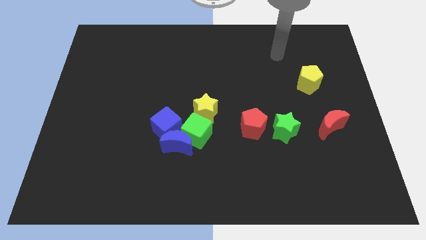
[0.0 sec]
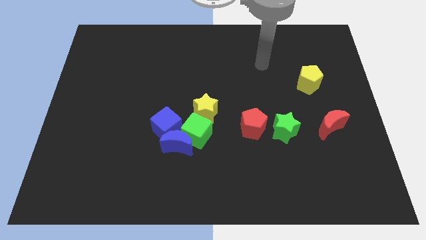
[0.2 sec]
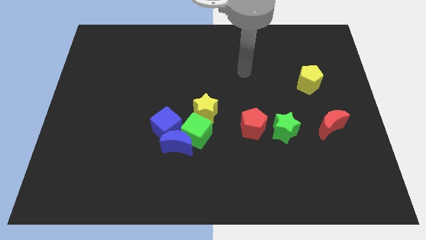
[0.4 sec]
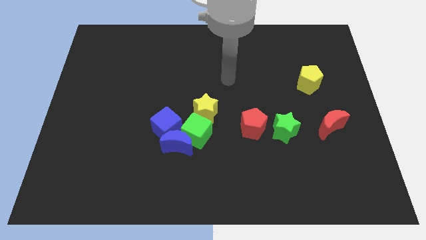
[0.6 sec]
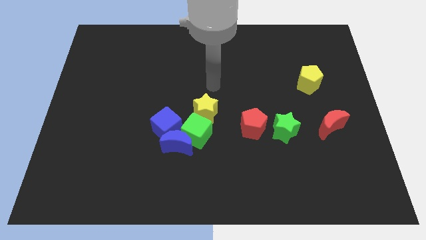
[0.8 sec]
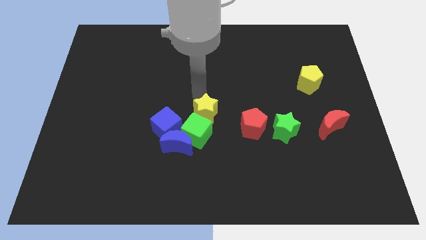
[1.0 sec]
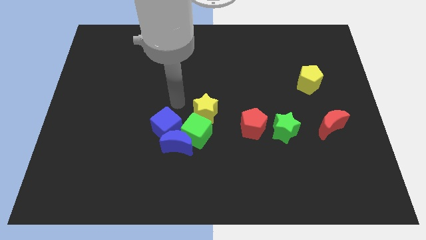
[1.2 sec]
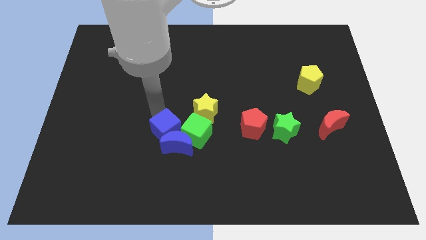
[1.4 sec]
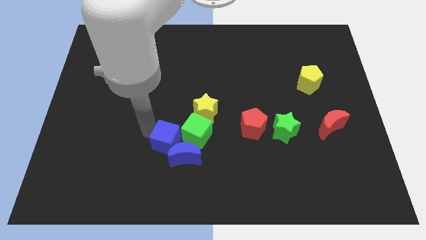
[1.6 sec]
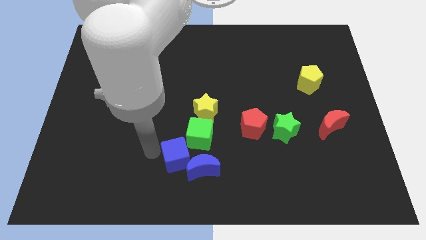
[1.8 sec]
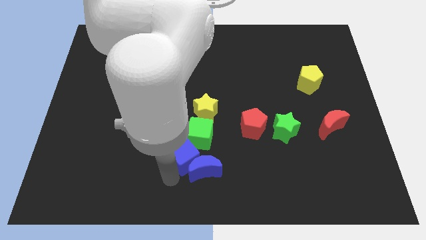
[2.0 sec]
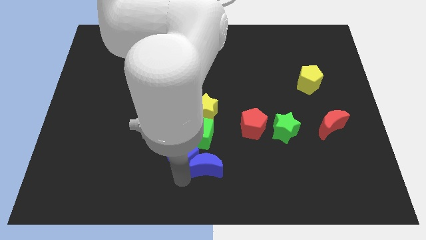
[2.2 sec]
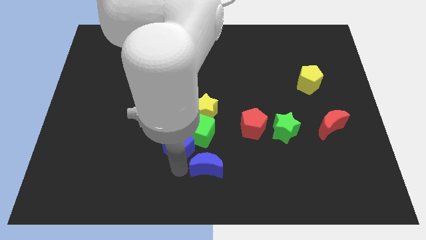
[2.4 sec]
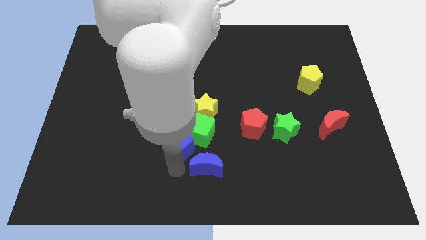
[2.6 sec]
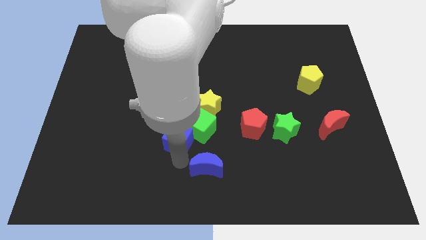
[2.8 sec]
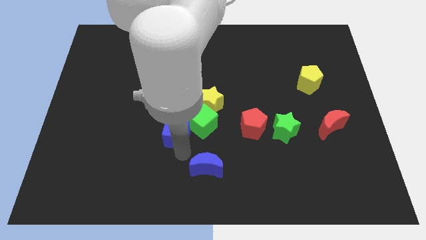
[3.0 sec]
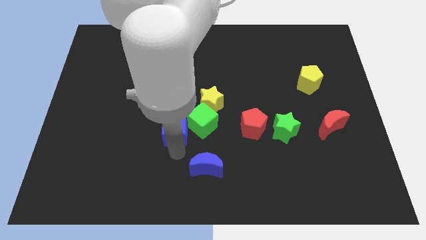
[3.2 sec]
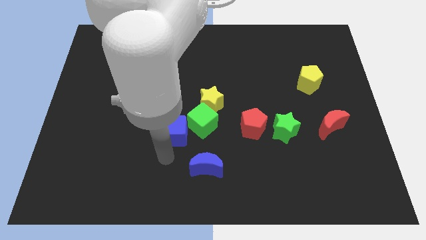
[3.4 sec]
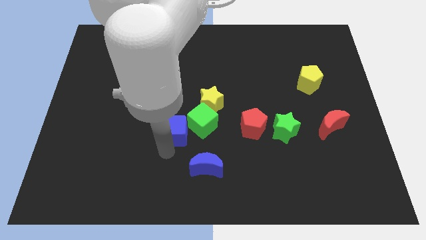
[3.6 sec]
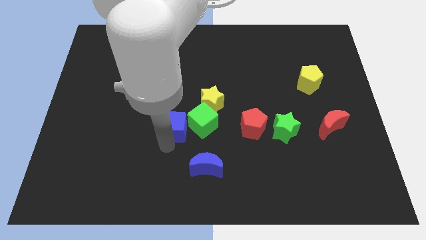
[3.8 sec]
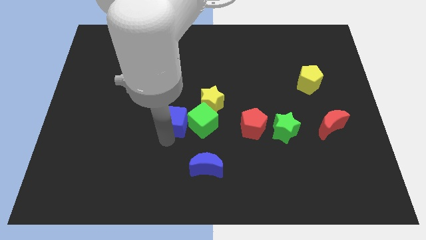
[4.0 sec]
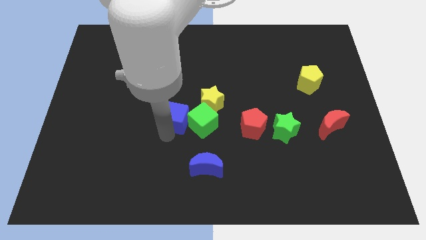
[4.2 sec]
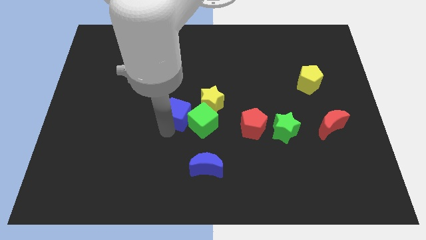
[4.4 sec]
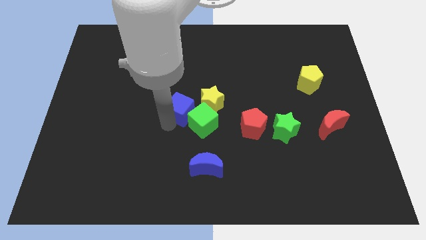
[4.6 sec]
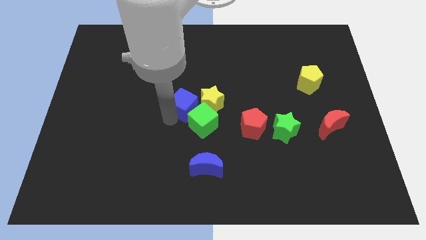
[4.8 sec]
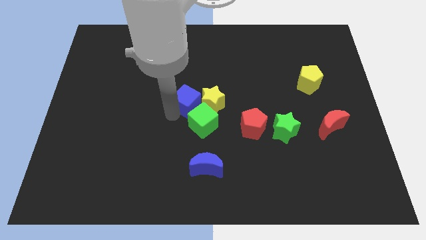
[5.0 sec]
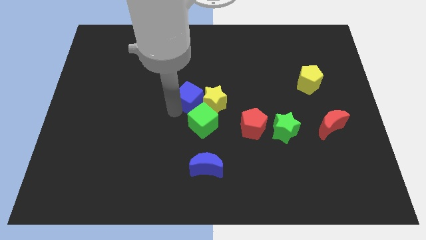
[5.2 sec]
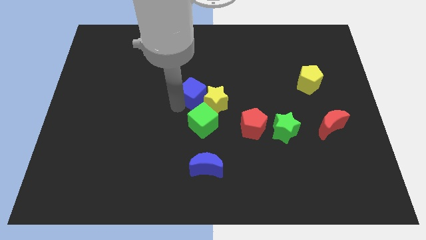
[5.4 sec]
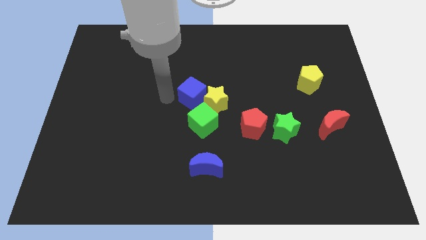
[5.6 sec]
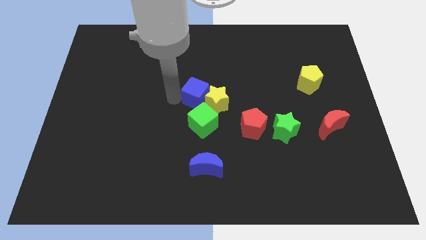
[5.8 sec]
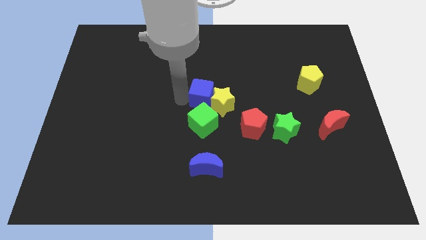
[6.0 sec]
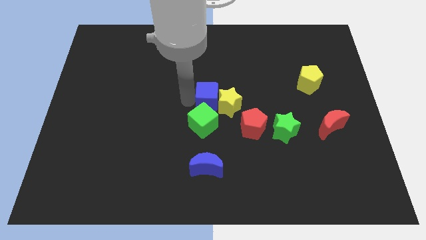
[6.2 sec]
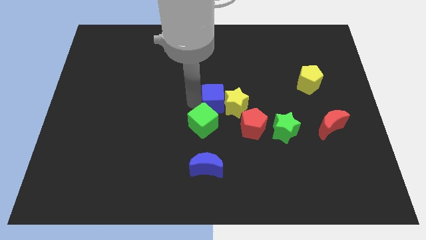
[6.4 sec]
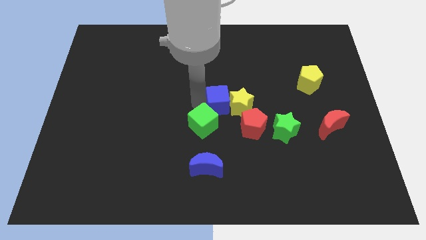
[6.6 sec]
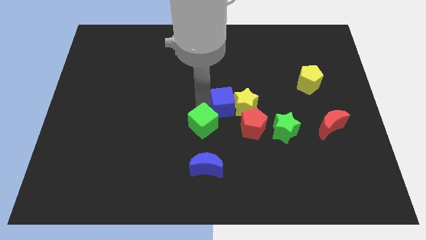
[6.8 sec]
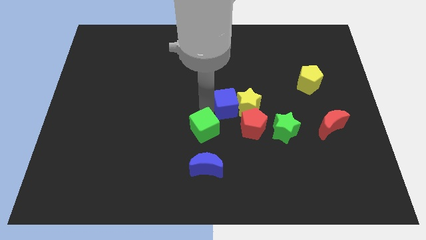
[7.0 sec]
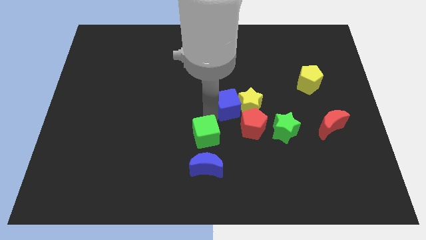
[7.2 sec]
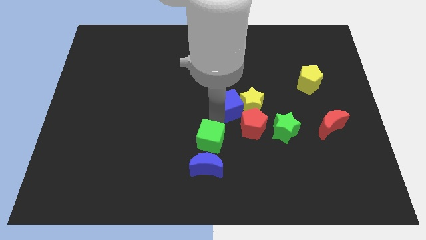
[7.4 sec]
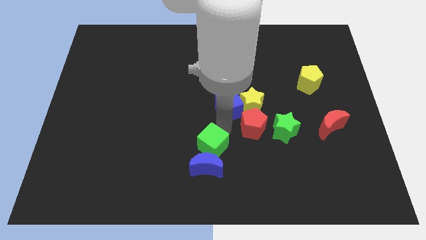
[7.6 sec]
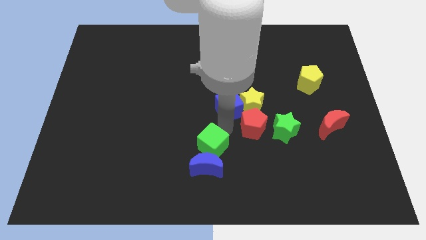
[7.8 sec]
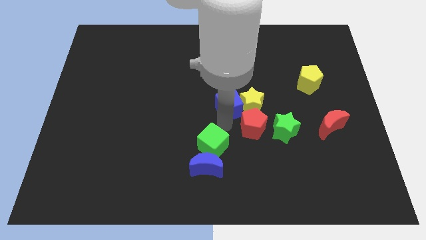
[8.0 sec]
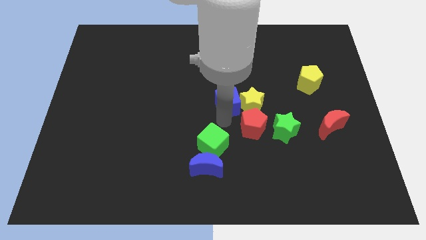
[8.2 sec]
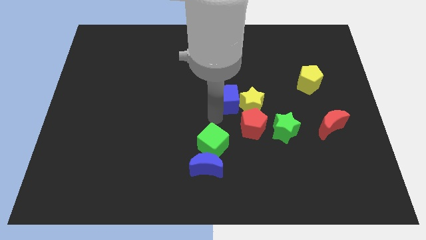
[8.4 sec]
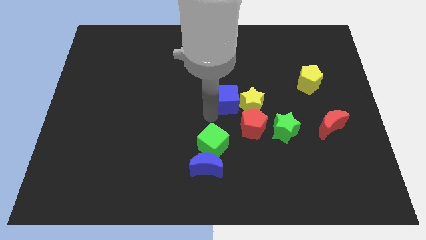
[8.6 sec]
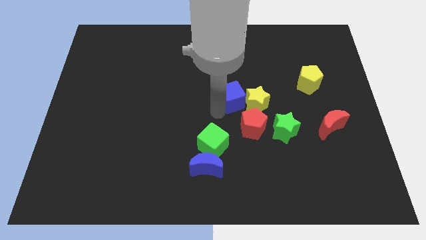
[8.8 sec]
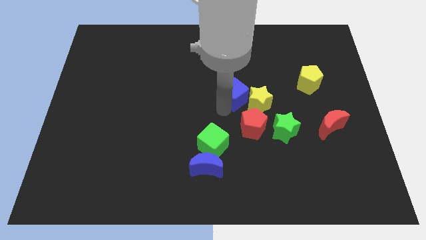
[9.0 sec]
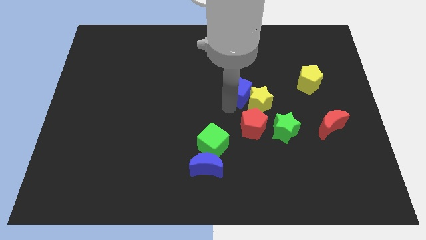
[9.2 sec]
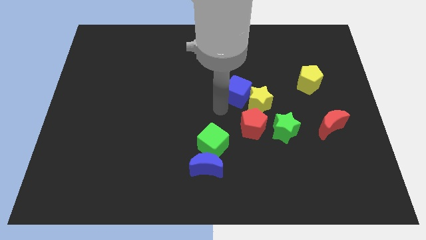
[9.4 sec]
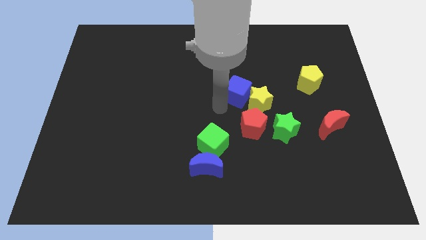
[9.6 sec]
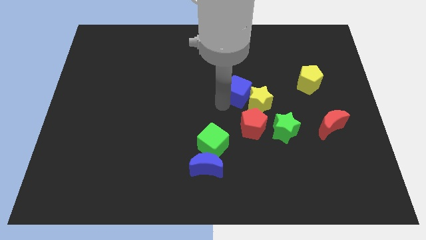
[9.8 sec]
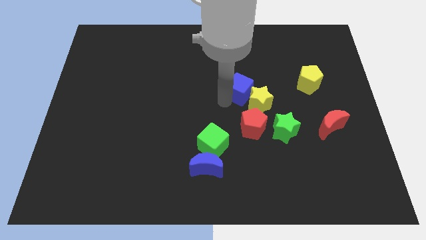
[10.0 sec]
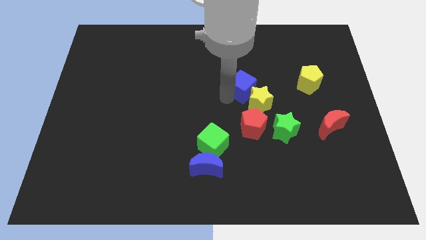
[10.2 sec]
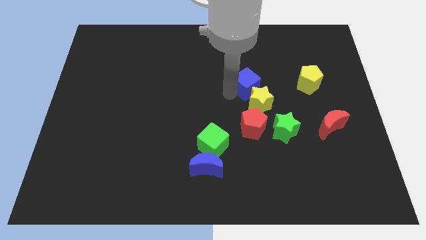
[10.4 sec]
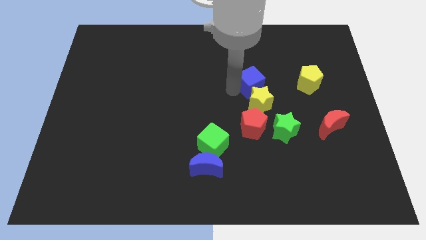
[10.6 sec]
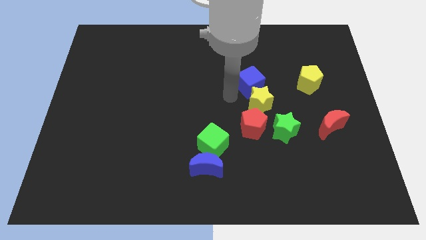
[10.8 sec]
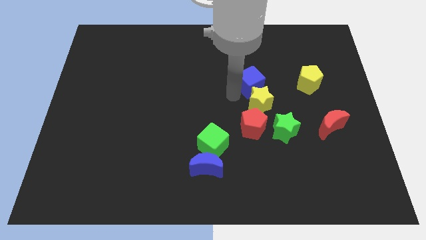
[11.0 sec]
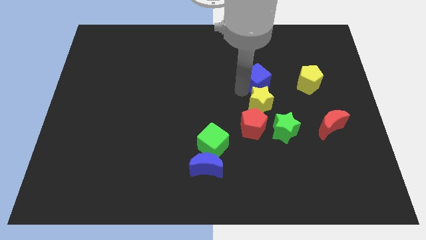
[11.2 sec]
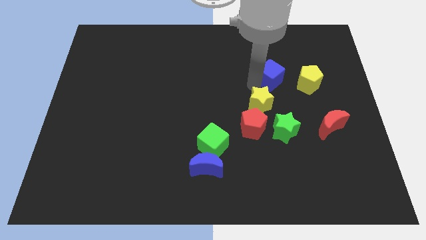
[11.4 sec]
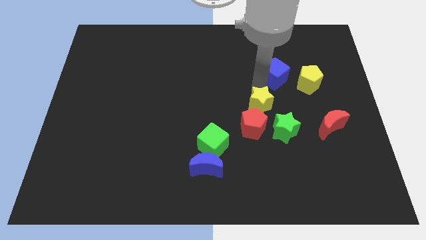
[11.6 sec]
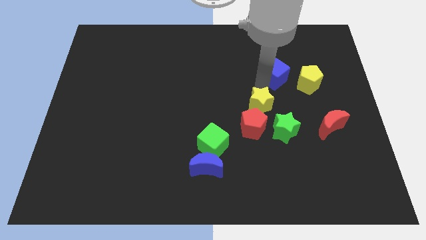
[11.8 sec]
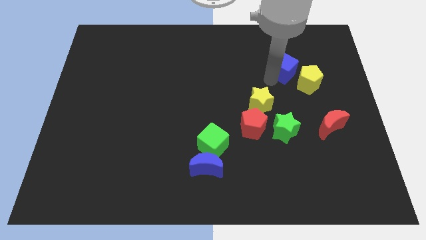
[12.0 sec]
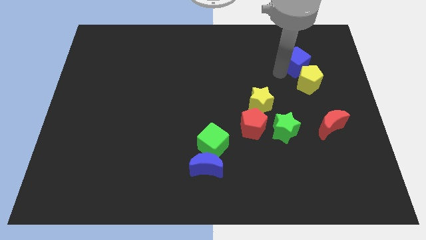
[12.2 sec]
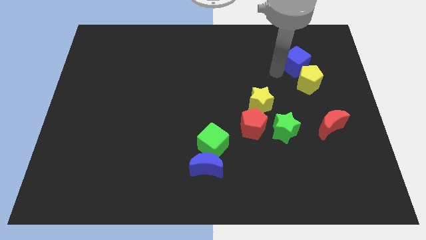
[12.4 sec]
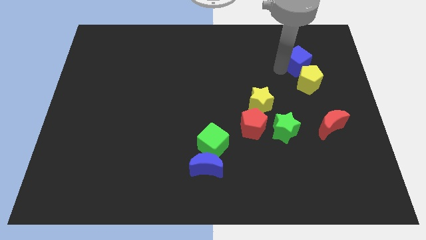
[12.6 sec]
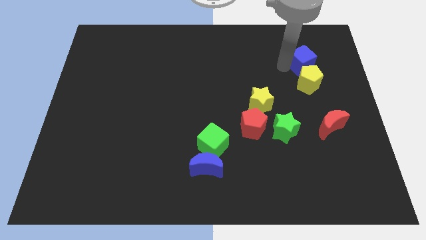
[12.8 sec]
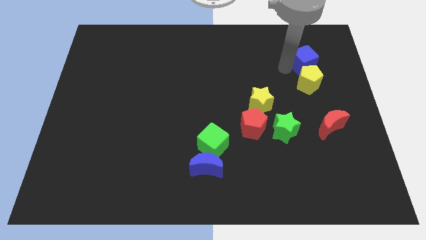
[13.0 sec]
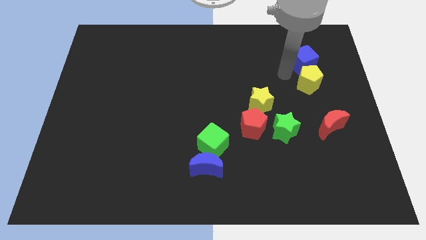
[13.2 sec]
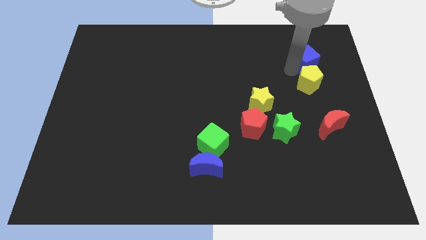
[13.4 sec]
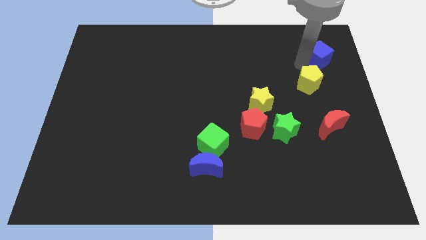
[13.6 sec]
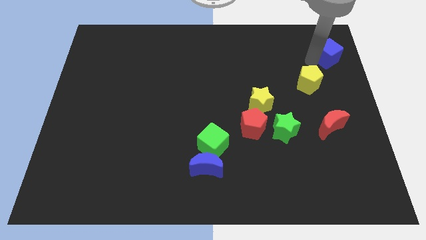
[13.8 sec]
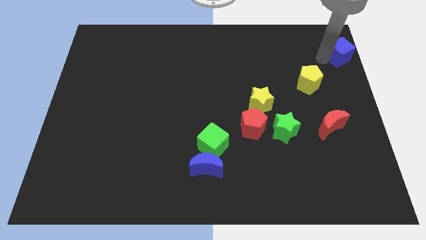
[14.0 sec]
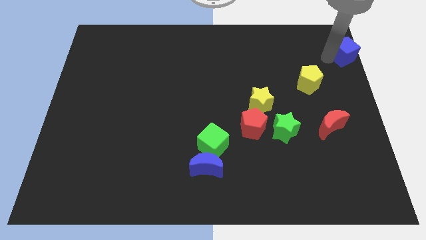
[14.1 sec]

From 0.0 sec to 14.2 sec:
put the blue cube to the top right corner
